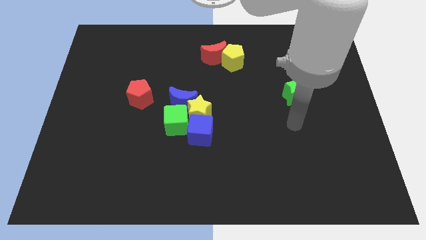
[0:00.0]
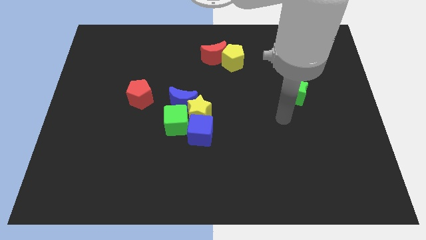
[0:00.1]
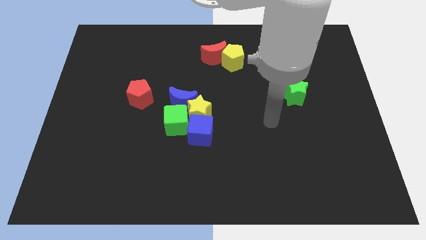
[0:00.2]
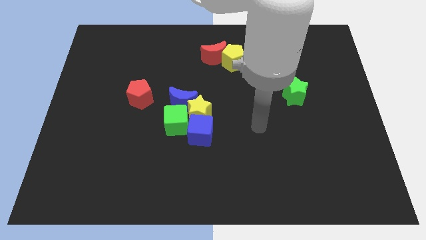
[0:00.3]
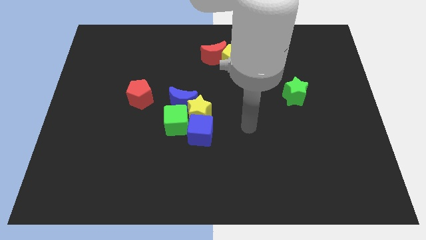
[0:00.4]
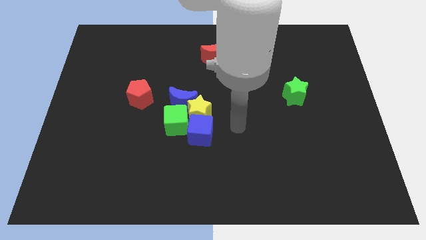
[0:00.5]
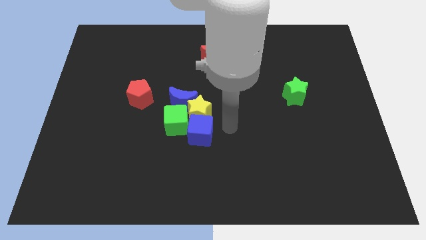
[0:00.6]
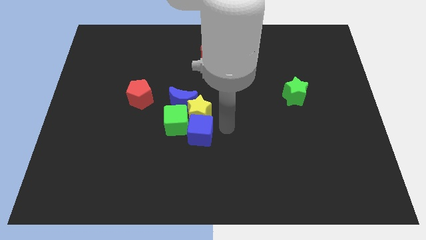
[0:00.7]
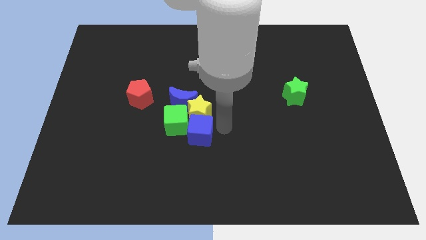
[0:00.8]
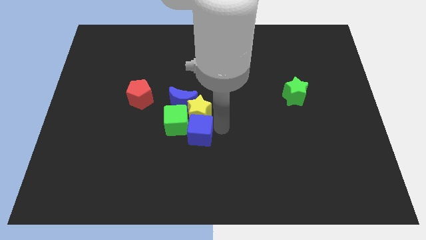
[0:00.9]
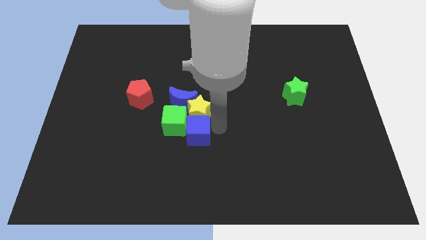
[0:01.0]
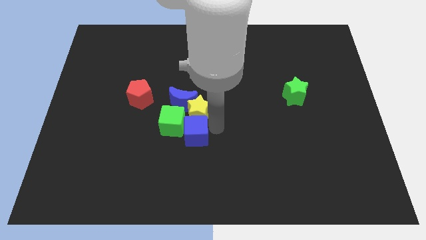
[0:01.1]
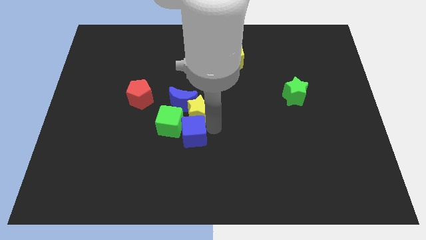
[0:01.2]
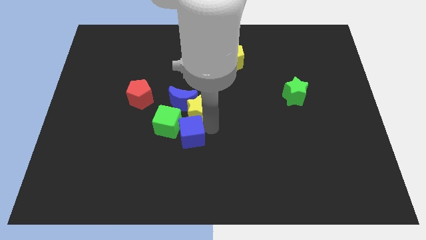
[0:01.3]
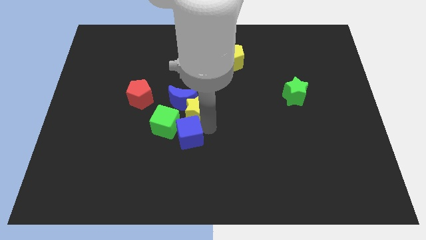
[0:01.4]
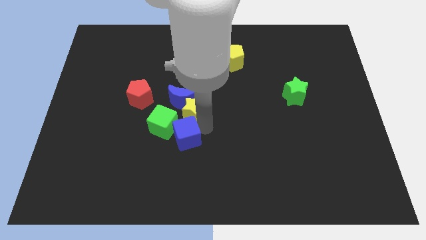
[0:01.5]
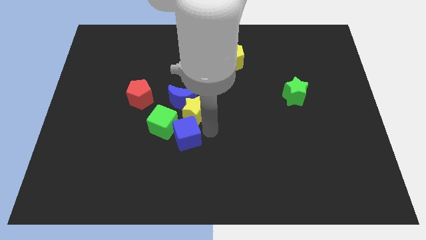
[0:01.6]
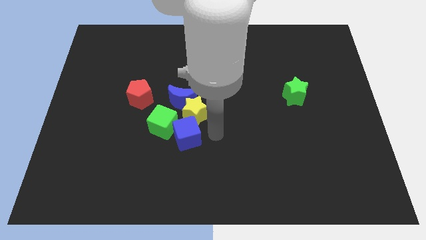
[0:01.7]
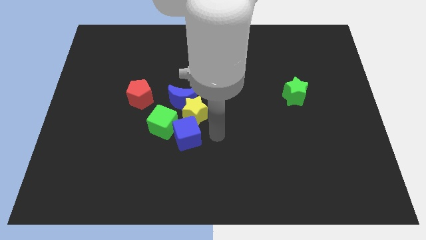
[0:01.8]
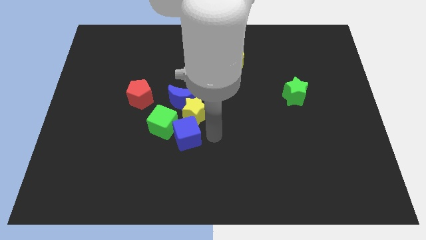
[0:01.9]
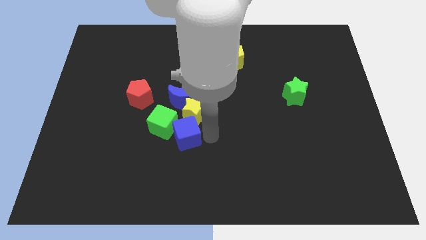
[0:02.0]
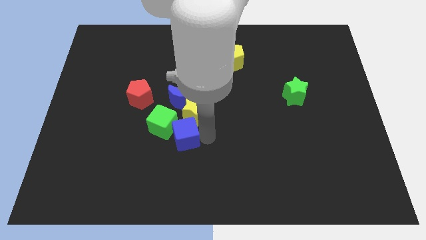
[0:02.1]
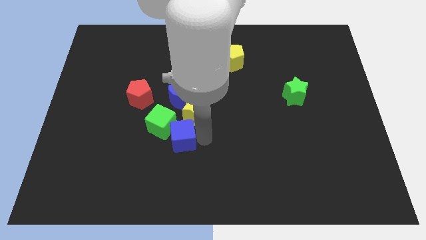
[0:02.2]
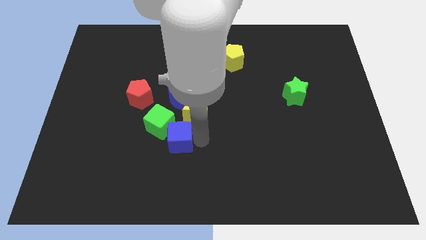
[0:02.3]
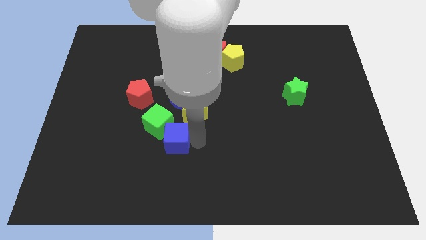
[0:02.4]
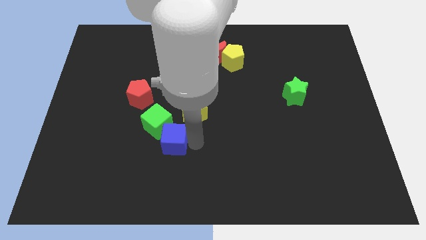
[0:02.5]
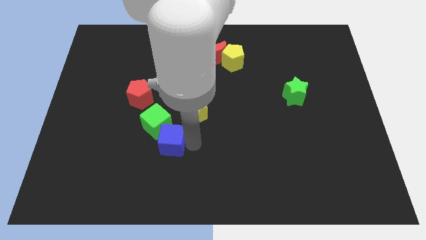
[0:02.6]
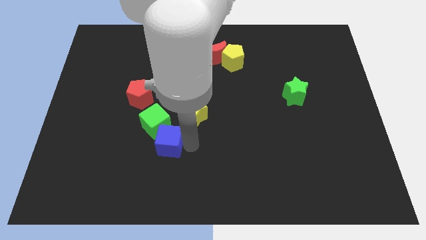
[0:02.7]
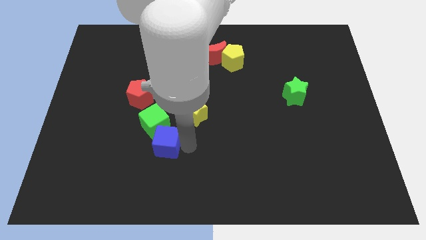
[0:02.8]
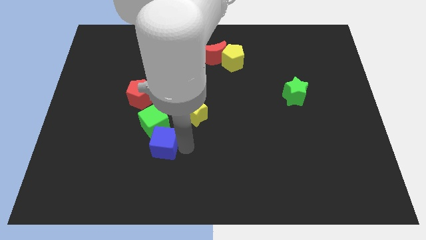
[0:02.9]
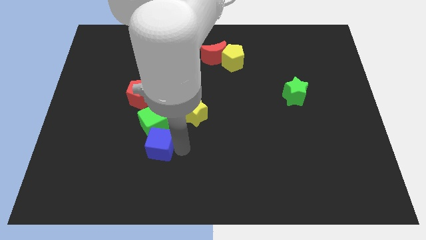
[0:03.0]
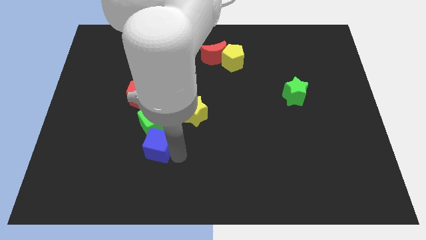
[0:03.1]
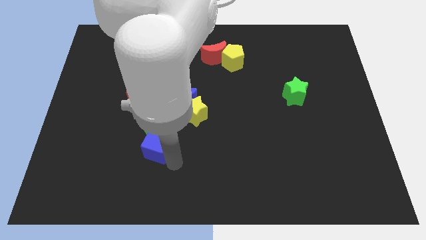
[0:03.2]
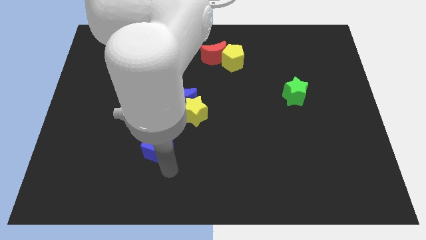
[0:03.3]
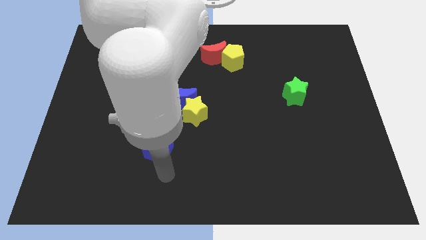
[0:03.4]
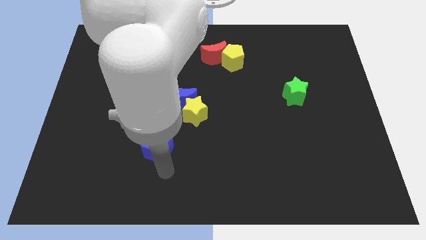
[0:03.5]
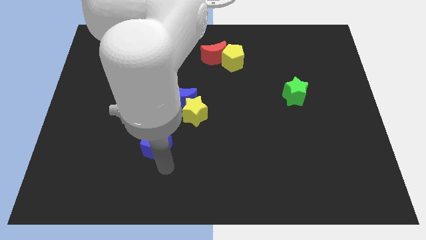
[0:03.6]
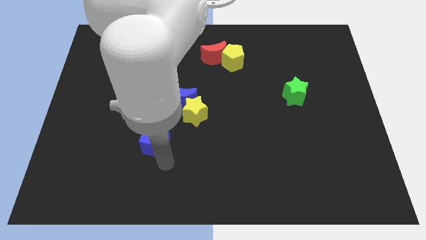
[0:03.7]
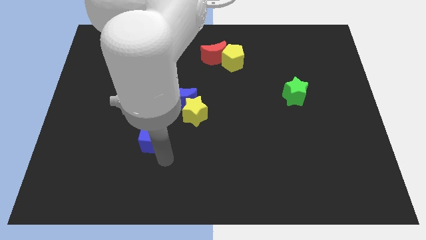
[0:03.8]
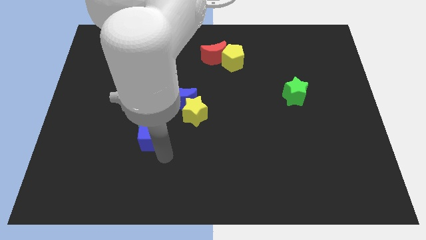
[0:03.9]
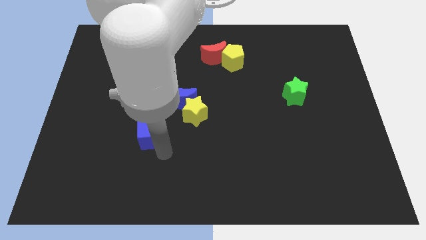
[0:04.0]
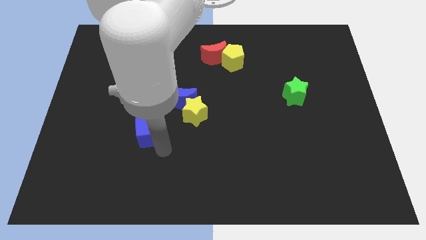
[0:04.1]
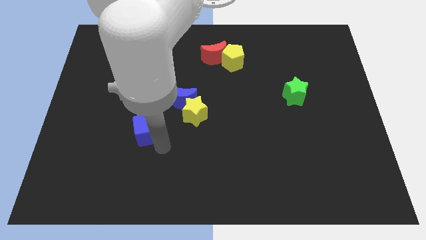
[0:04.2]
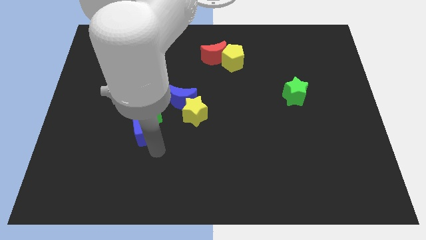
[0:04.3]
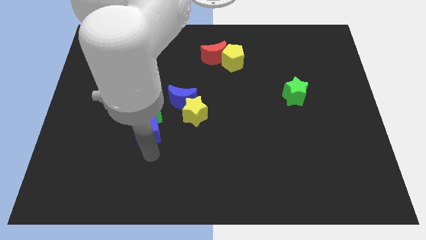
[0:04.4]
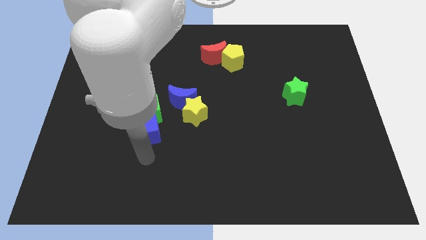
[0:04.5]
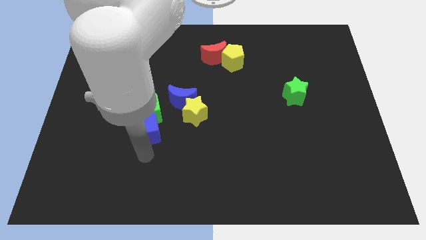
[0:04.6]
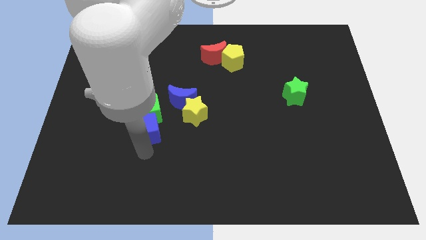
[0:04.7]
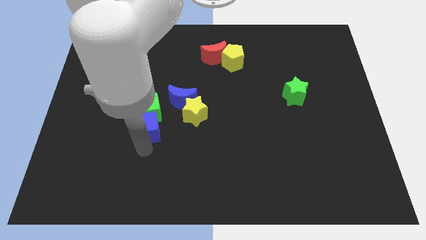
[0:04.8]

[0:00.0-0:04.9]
move the blue cube left of the yellow star

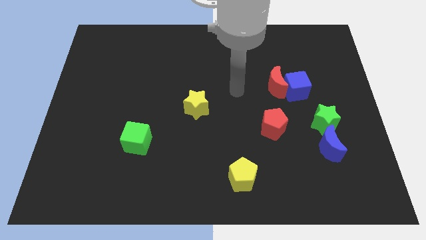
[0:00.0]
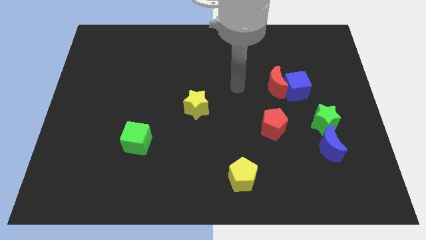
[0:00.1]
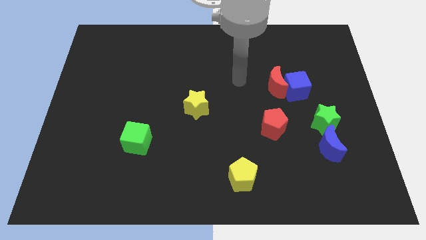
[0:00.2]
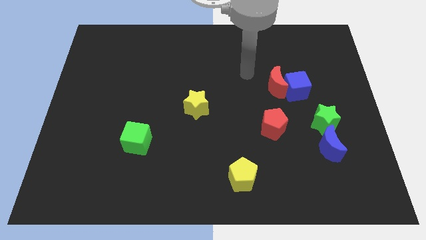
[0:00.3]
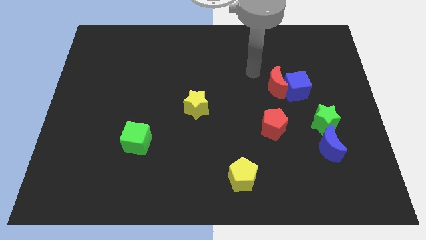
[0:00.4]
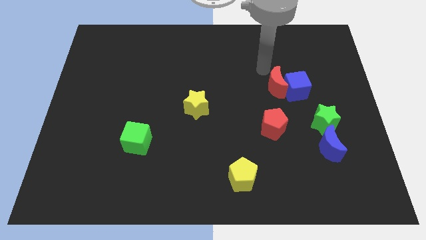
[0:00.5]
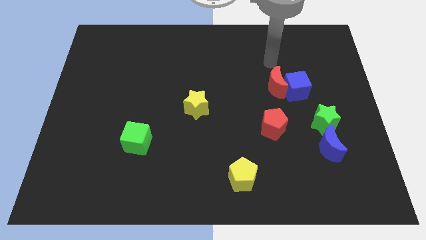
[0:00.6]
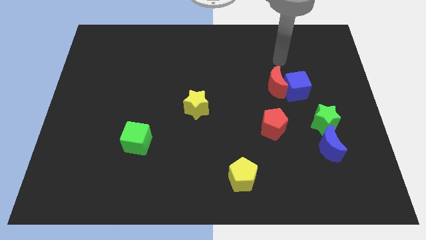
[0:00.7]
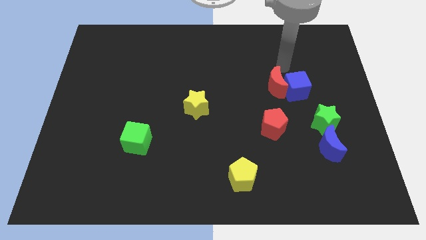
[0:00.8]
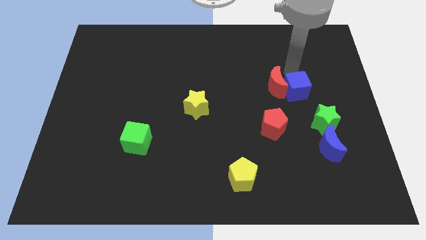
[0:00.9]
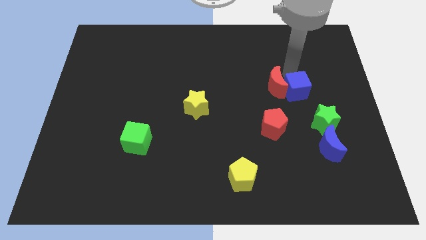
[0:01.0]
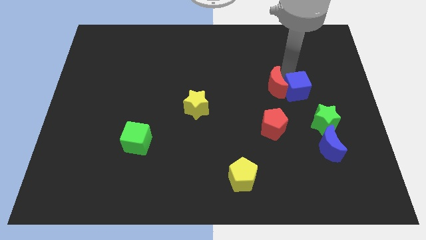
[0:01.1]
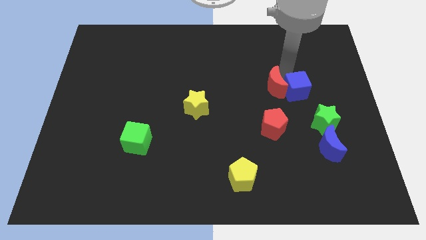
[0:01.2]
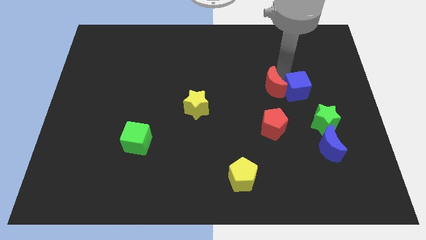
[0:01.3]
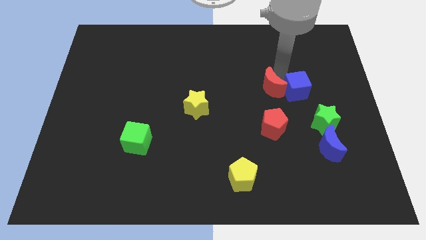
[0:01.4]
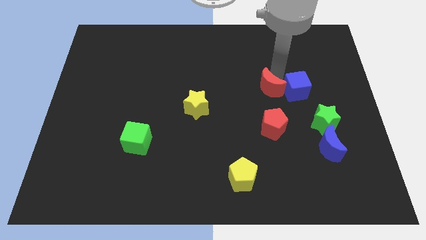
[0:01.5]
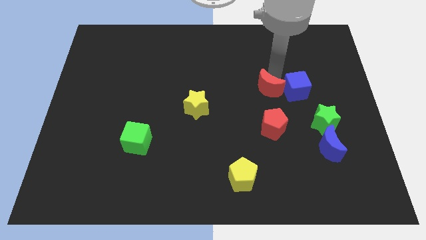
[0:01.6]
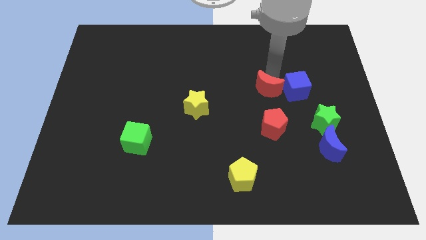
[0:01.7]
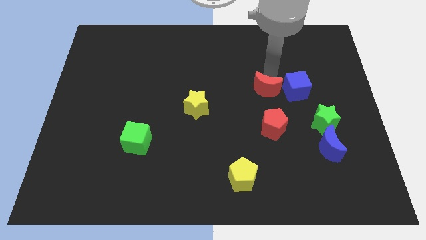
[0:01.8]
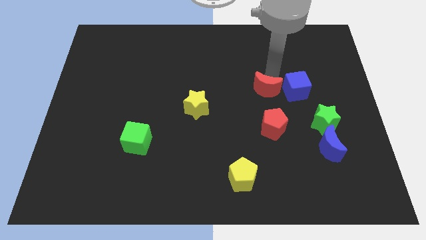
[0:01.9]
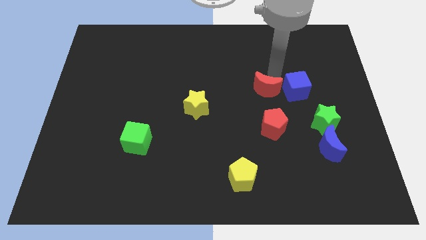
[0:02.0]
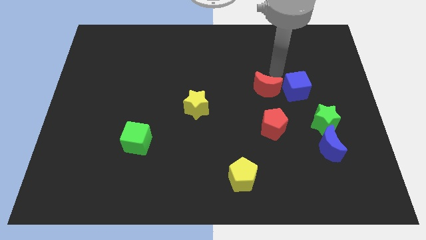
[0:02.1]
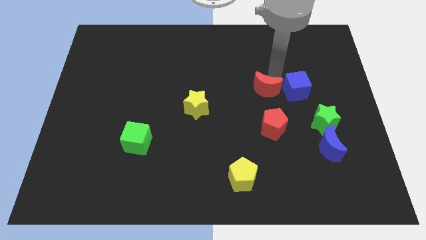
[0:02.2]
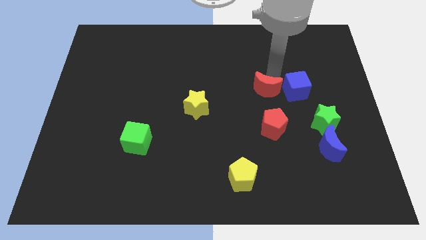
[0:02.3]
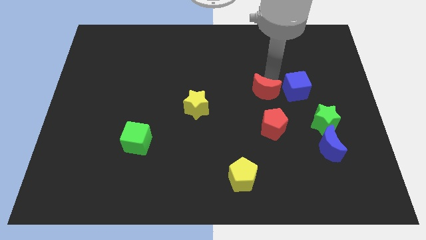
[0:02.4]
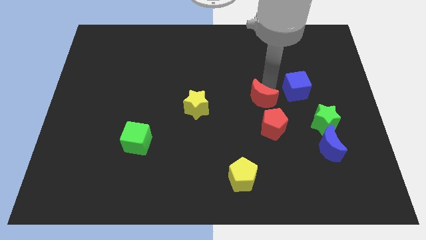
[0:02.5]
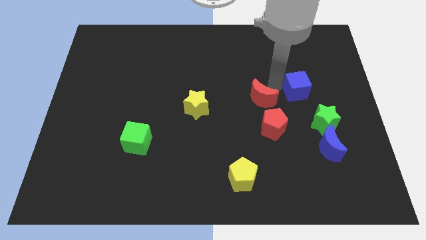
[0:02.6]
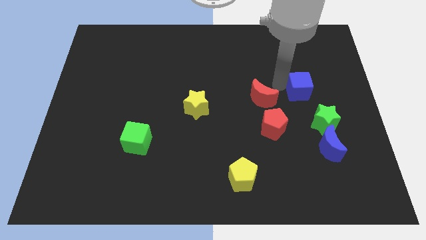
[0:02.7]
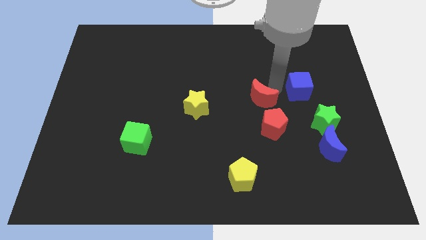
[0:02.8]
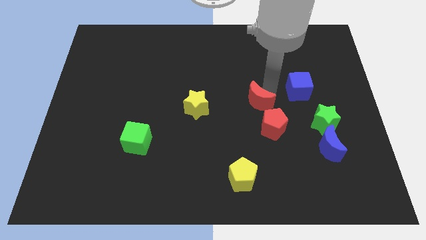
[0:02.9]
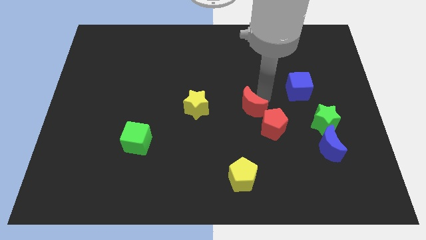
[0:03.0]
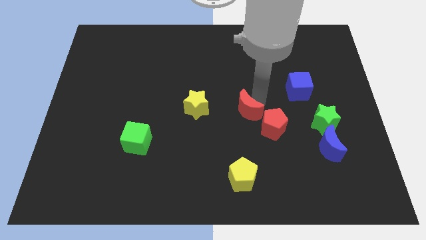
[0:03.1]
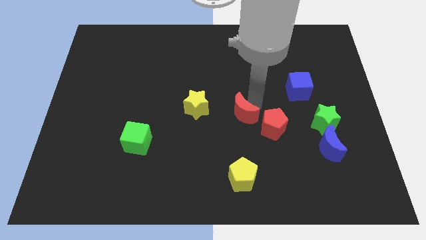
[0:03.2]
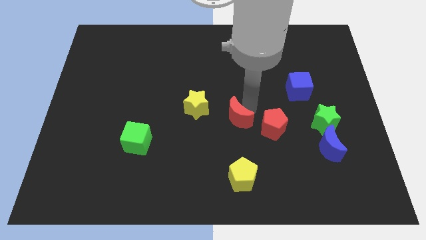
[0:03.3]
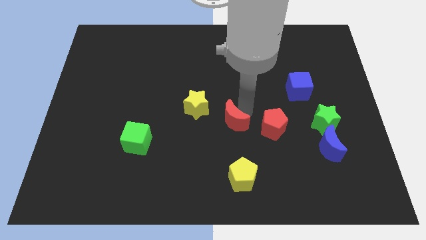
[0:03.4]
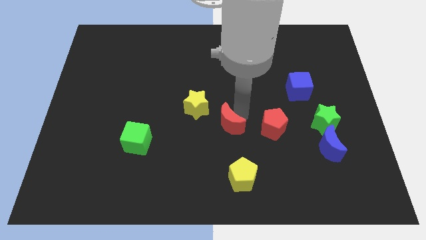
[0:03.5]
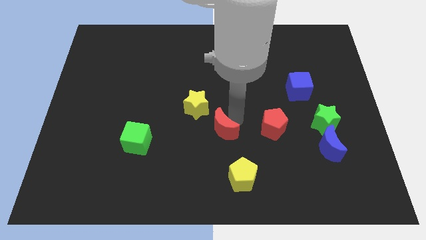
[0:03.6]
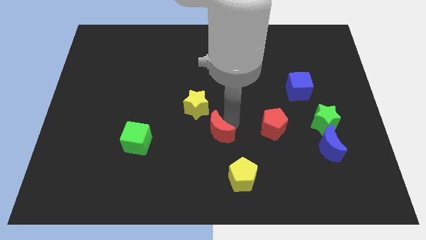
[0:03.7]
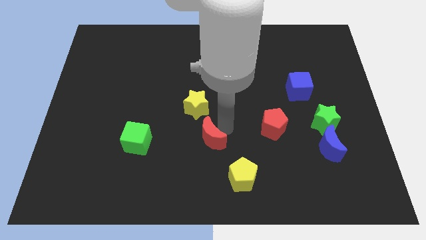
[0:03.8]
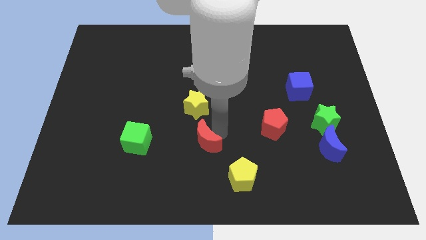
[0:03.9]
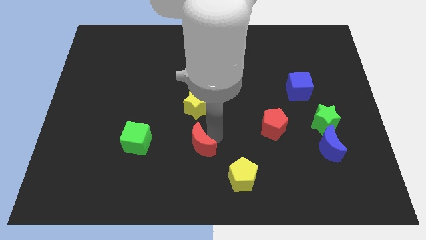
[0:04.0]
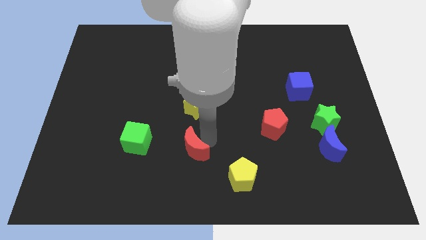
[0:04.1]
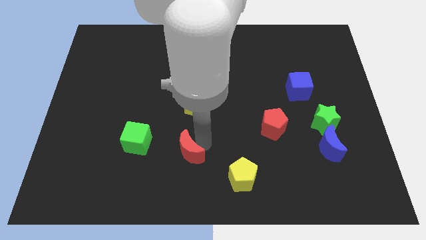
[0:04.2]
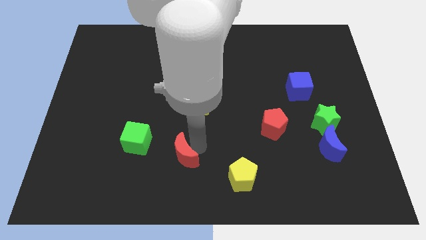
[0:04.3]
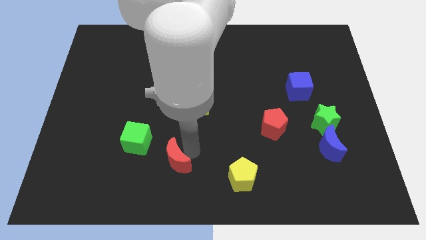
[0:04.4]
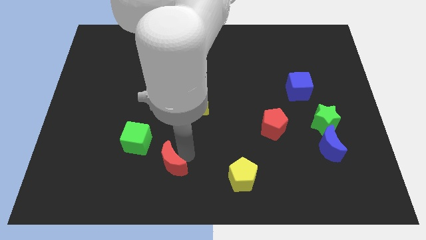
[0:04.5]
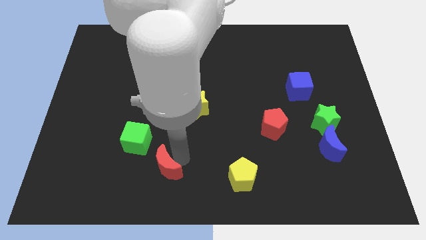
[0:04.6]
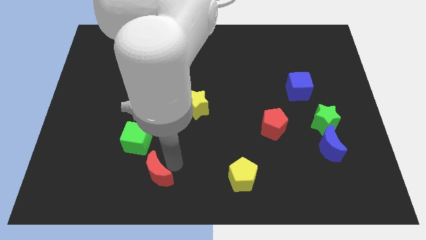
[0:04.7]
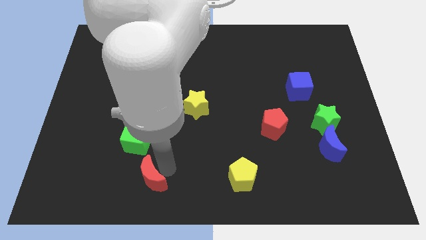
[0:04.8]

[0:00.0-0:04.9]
push the red moon below the green cube
